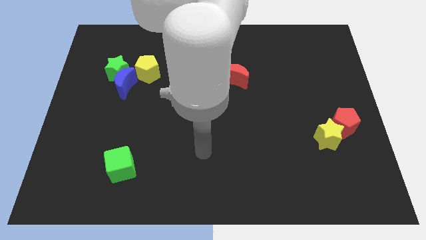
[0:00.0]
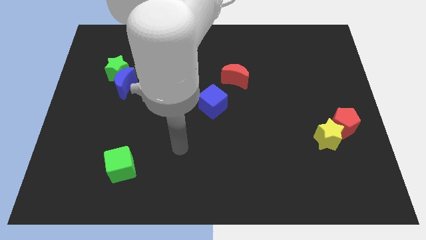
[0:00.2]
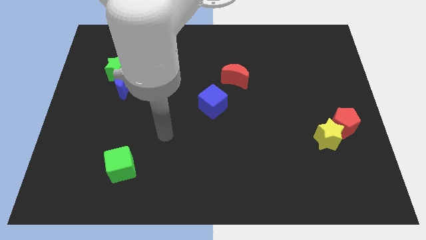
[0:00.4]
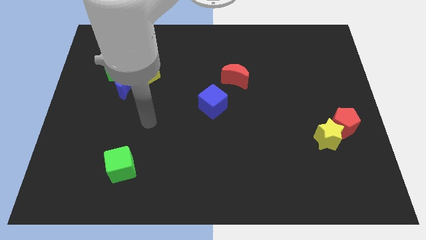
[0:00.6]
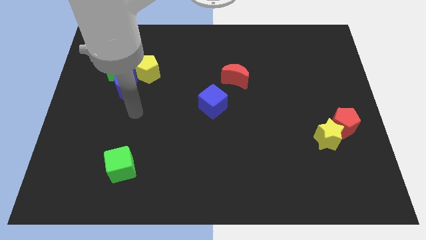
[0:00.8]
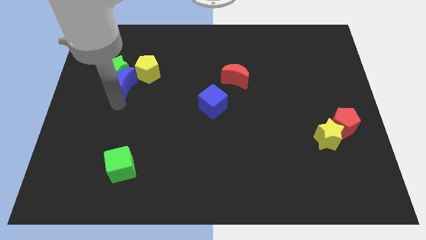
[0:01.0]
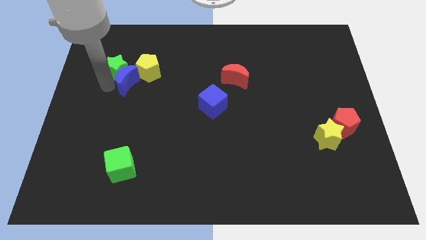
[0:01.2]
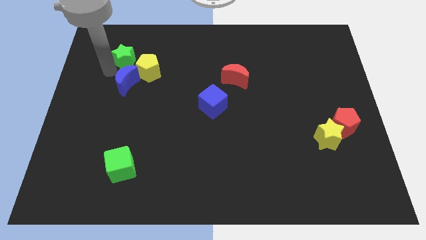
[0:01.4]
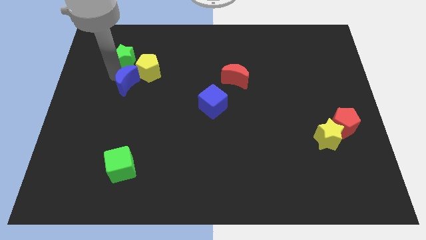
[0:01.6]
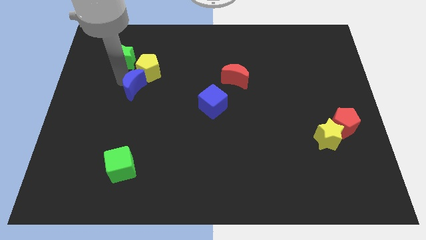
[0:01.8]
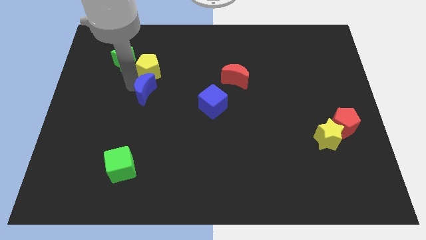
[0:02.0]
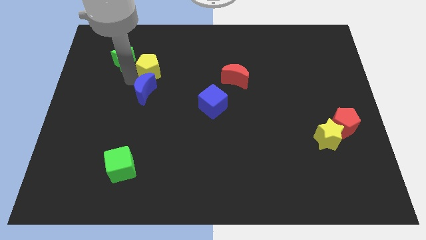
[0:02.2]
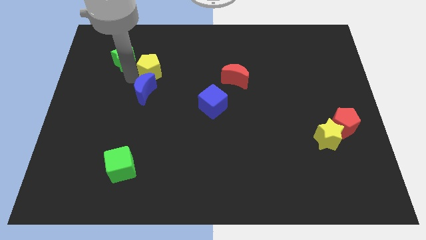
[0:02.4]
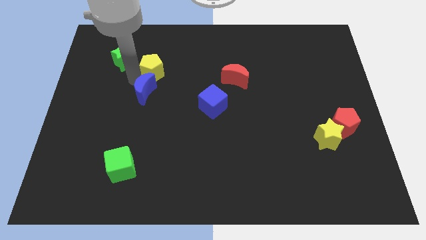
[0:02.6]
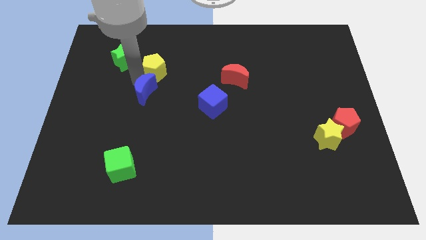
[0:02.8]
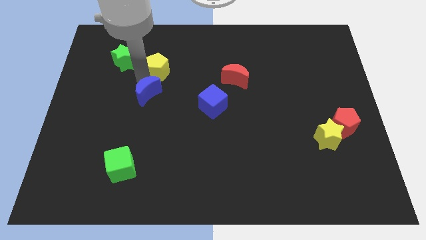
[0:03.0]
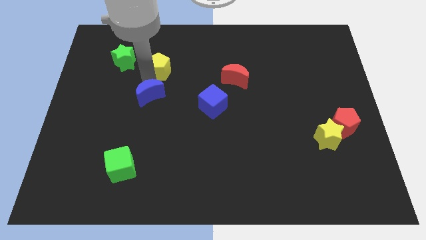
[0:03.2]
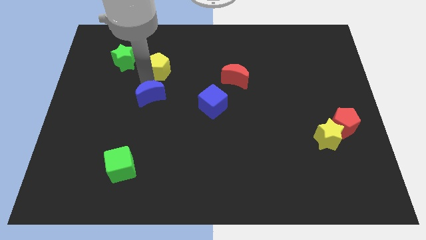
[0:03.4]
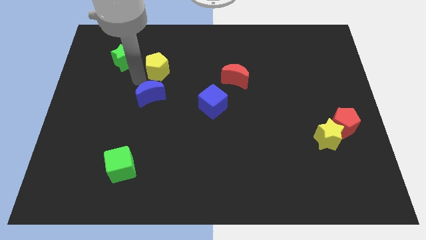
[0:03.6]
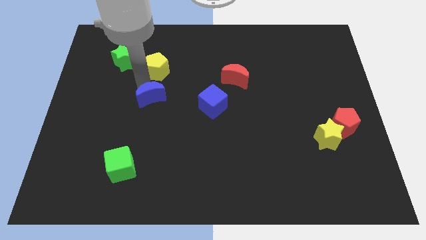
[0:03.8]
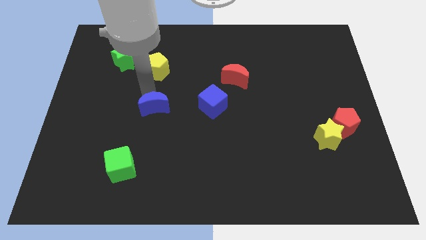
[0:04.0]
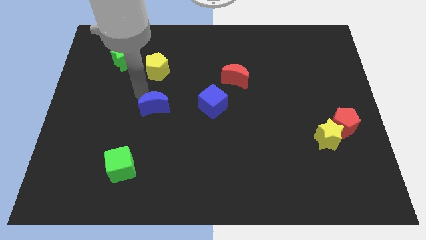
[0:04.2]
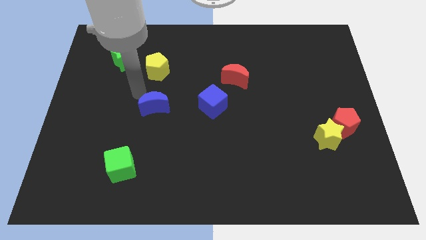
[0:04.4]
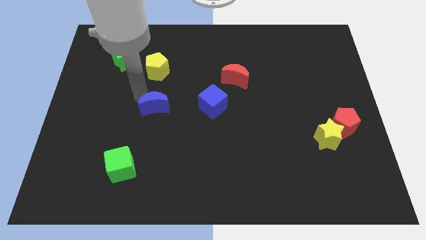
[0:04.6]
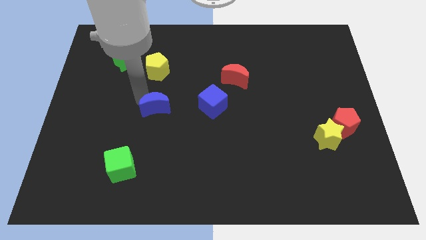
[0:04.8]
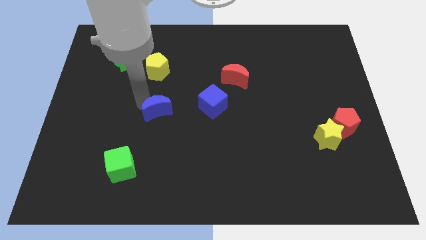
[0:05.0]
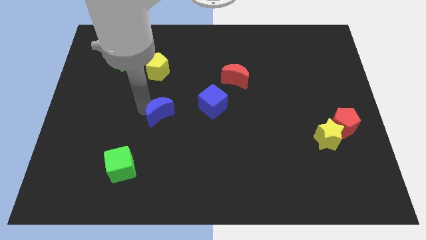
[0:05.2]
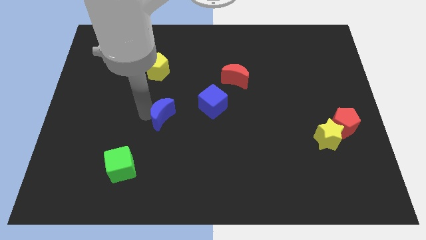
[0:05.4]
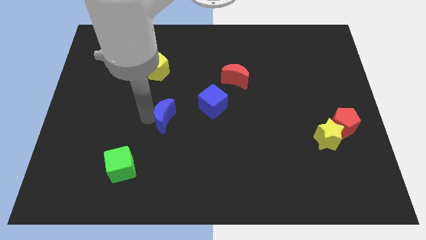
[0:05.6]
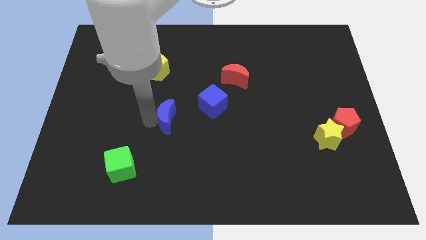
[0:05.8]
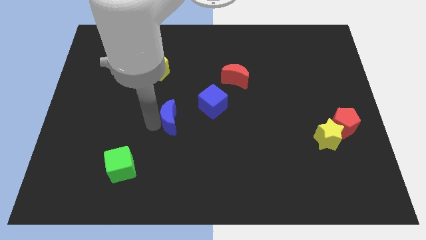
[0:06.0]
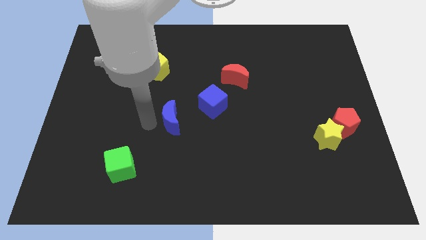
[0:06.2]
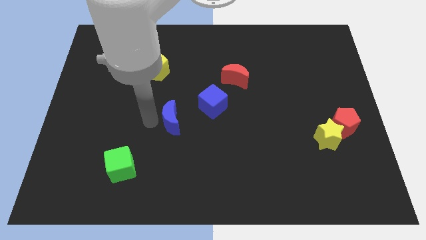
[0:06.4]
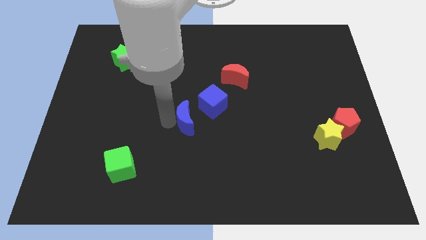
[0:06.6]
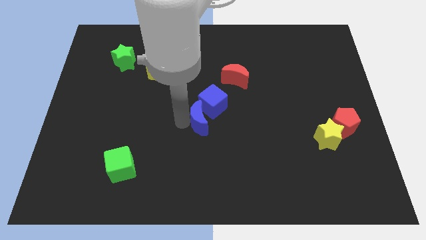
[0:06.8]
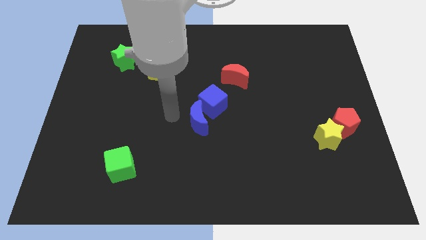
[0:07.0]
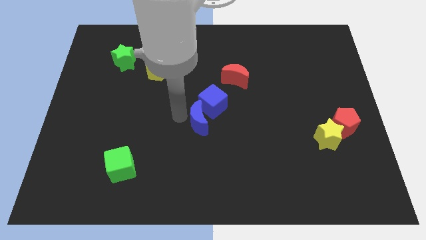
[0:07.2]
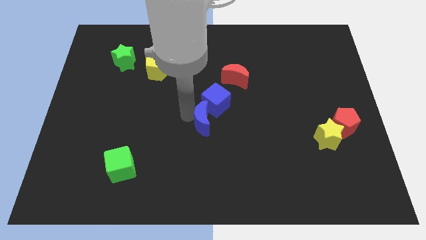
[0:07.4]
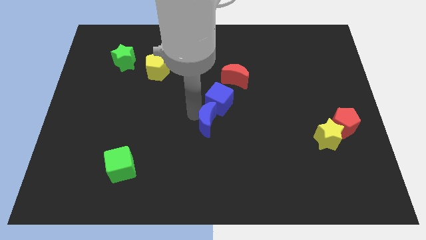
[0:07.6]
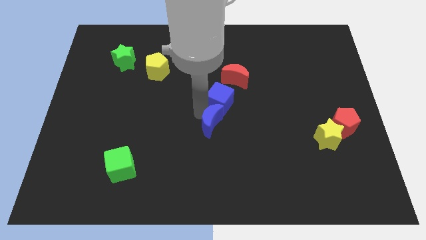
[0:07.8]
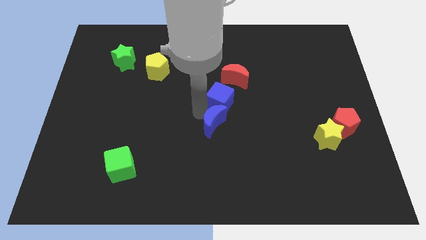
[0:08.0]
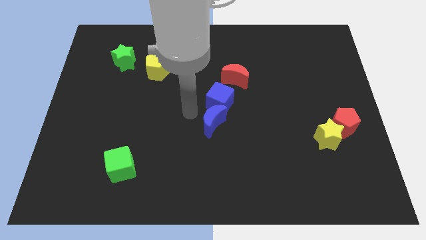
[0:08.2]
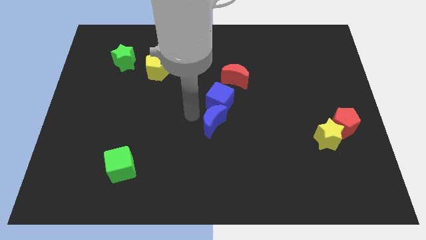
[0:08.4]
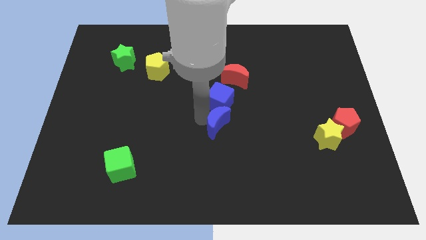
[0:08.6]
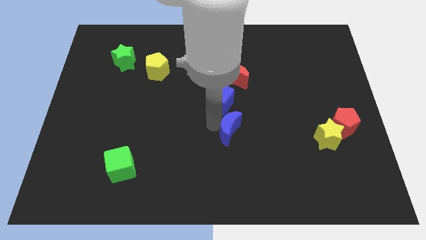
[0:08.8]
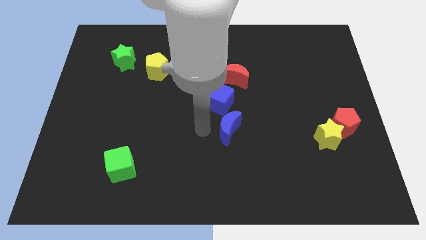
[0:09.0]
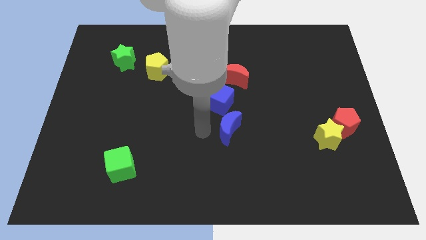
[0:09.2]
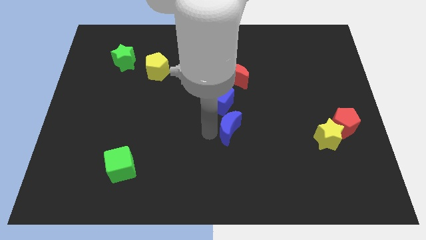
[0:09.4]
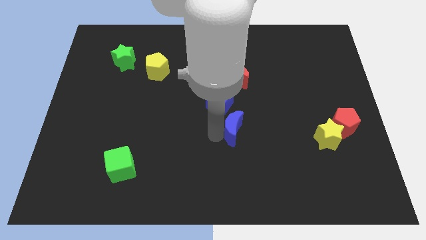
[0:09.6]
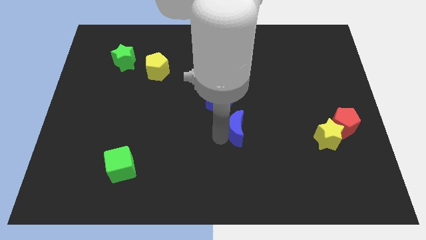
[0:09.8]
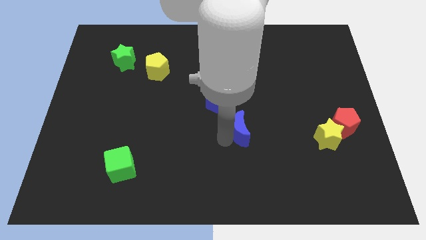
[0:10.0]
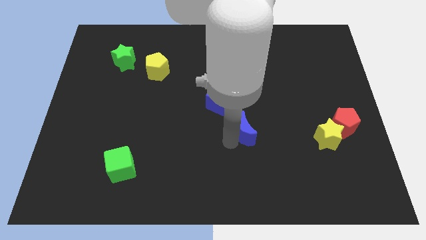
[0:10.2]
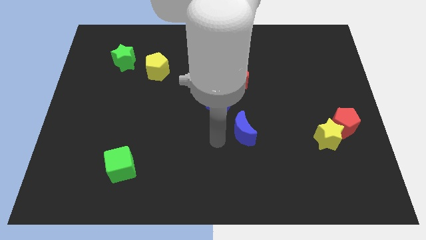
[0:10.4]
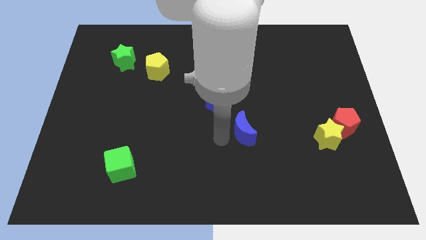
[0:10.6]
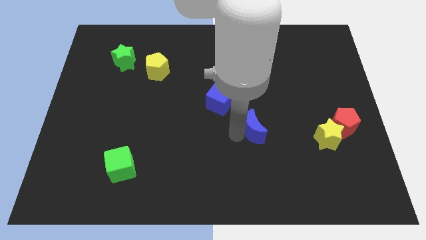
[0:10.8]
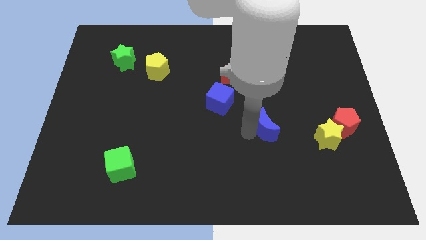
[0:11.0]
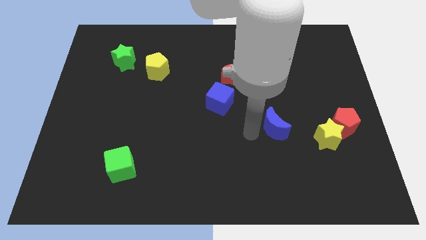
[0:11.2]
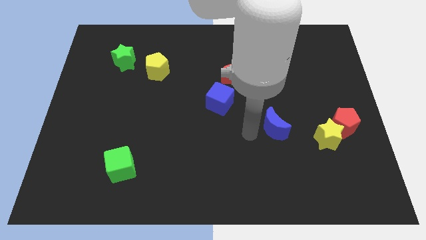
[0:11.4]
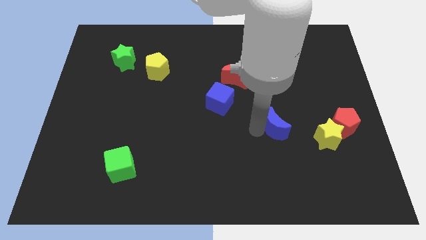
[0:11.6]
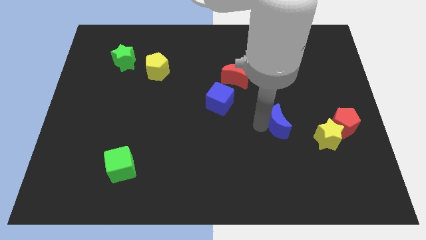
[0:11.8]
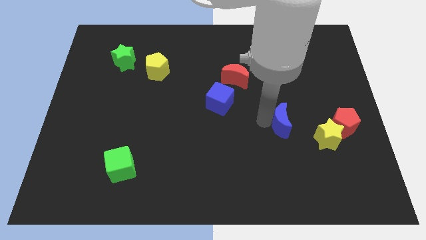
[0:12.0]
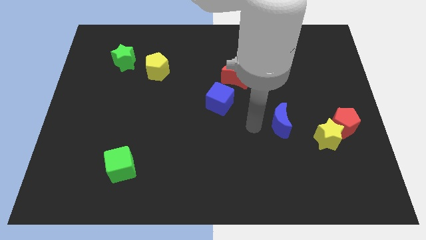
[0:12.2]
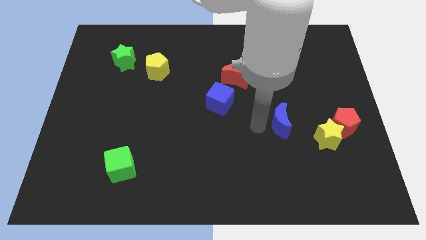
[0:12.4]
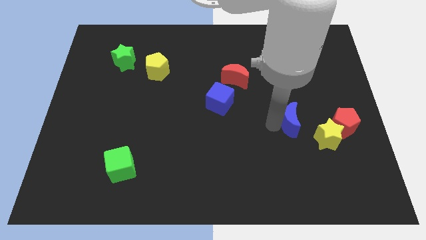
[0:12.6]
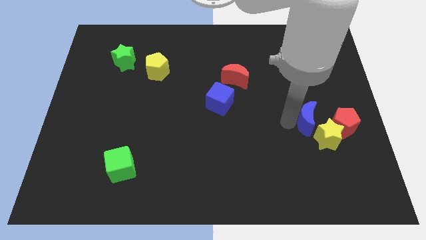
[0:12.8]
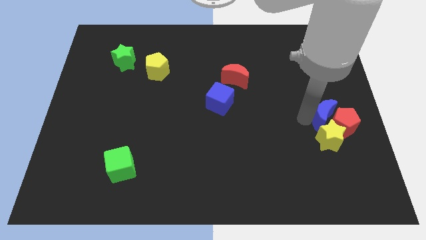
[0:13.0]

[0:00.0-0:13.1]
put the blue moon next to the red pentagon

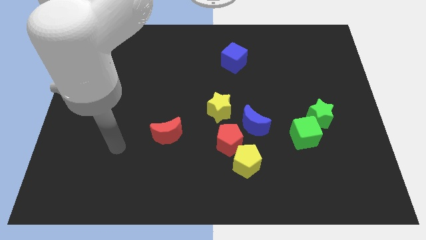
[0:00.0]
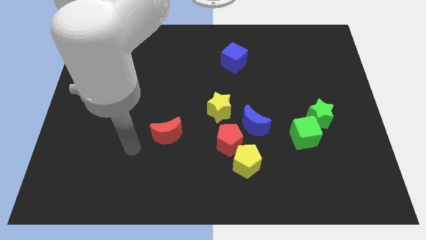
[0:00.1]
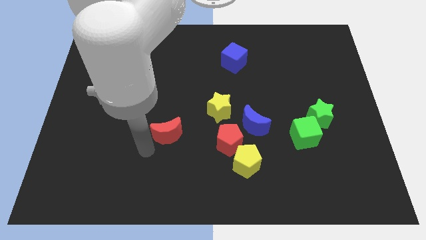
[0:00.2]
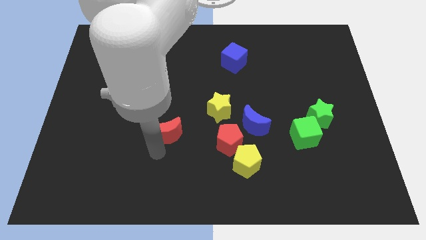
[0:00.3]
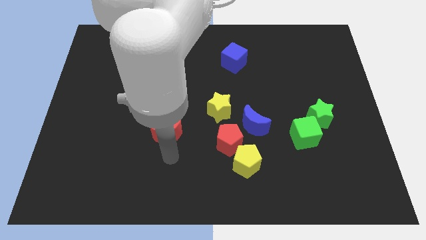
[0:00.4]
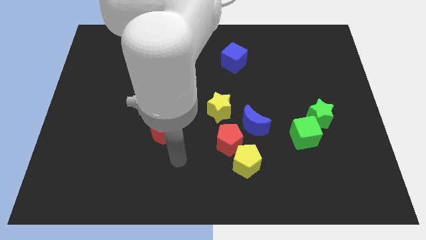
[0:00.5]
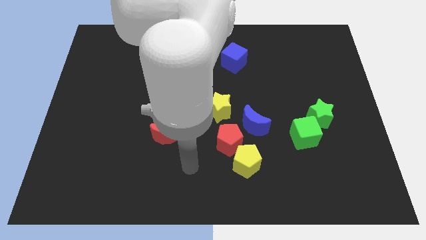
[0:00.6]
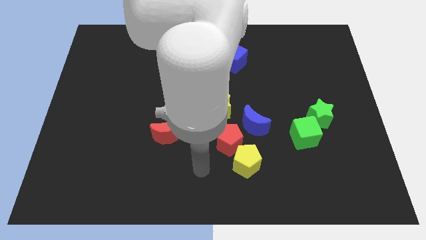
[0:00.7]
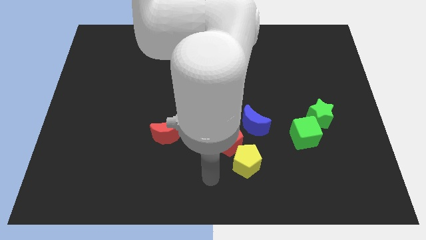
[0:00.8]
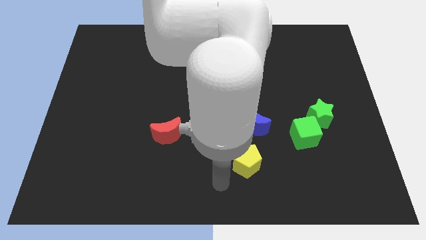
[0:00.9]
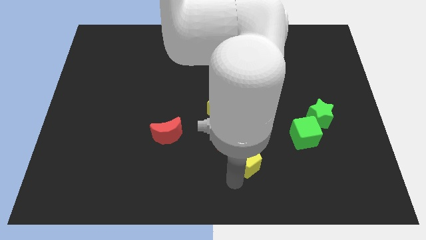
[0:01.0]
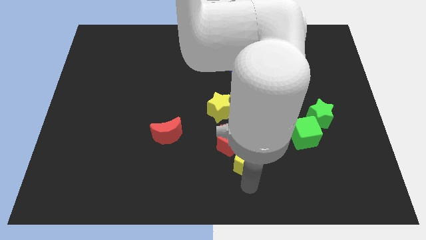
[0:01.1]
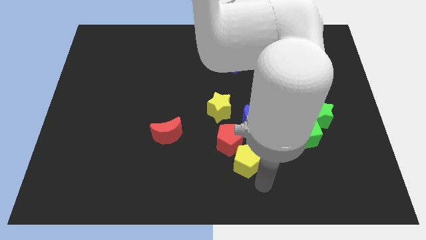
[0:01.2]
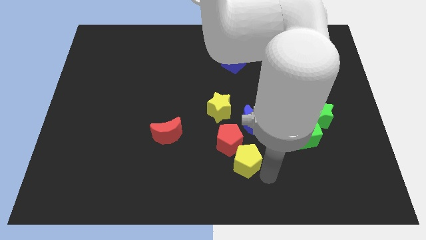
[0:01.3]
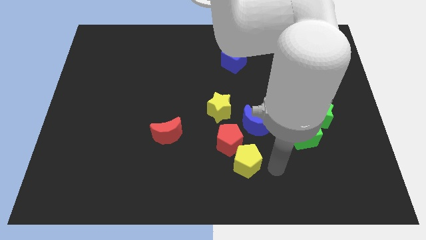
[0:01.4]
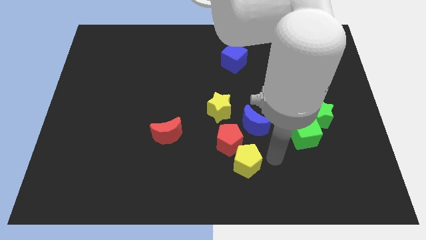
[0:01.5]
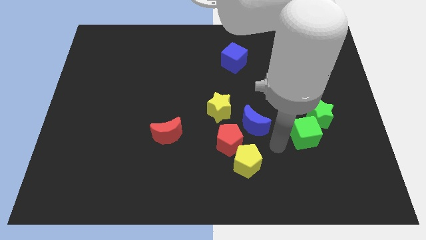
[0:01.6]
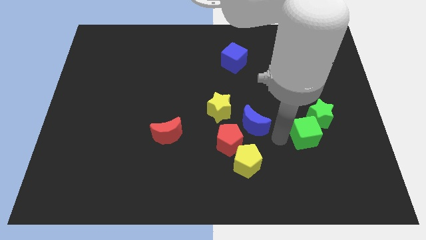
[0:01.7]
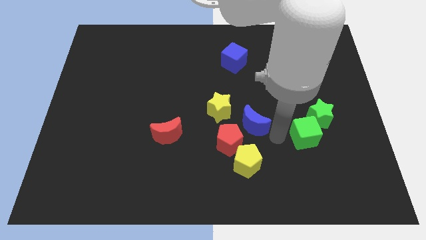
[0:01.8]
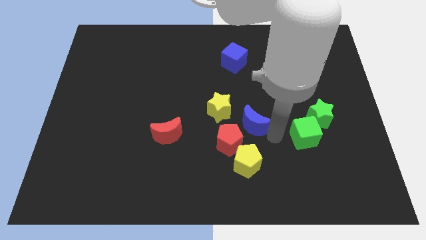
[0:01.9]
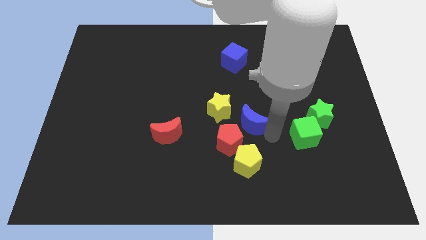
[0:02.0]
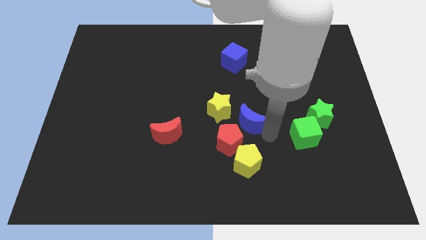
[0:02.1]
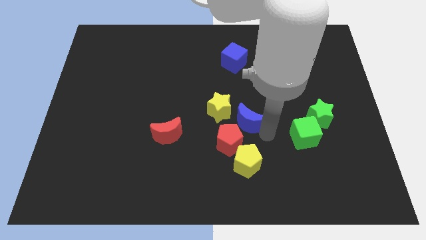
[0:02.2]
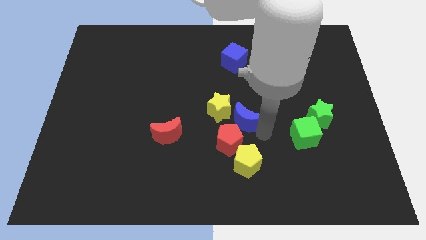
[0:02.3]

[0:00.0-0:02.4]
push the blue moon close to the yellow star
